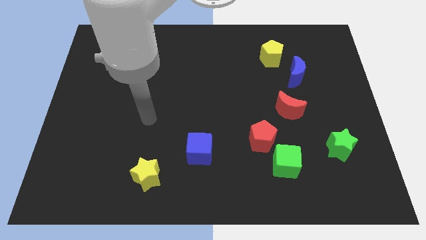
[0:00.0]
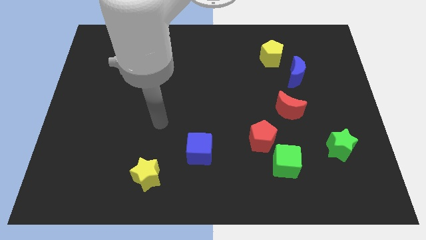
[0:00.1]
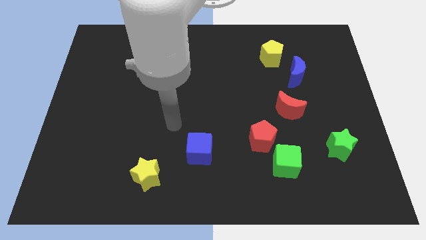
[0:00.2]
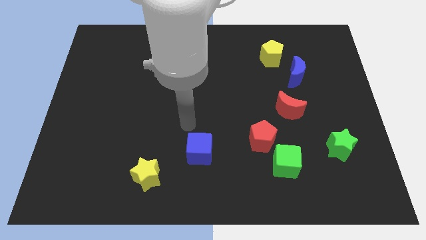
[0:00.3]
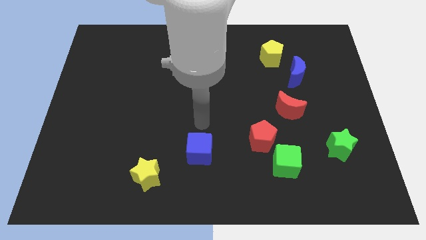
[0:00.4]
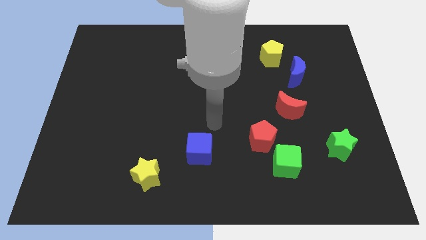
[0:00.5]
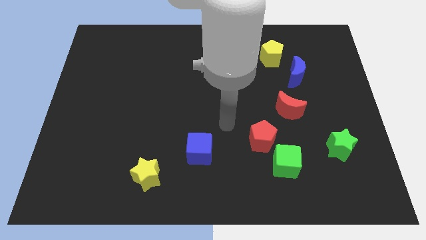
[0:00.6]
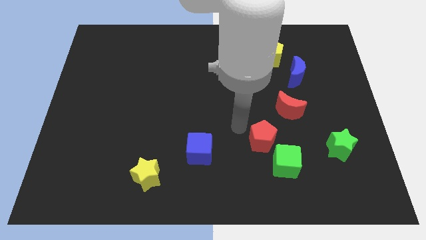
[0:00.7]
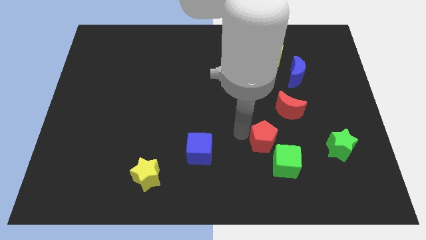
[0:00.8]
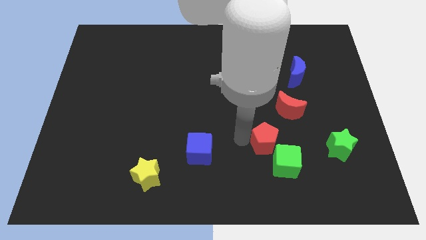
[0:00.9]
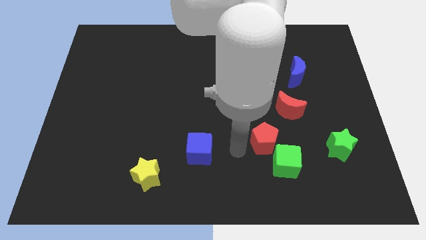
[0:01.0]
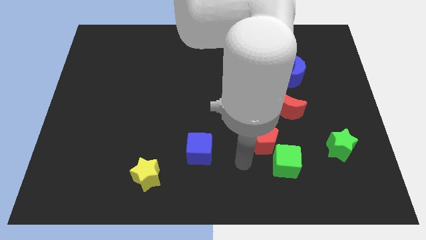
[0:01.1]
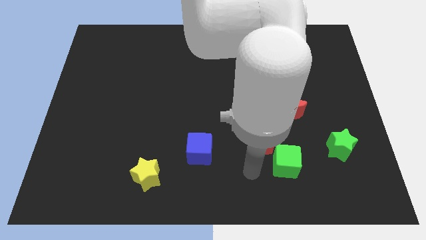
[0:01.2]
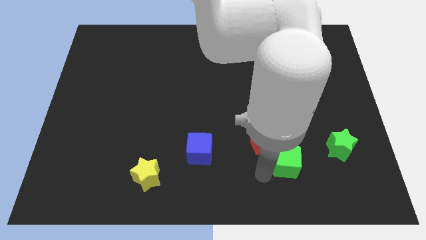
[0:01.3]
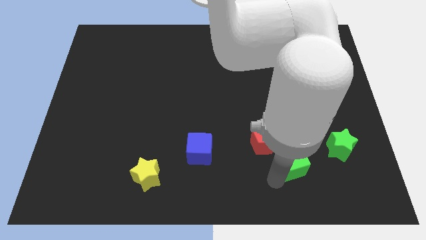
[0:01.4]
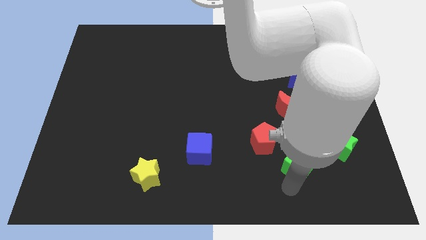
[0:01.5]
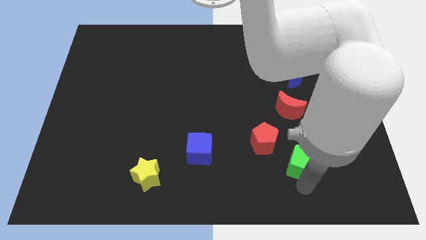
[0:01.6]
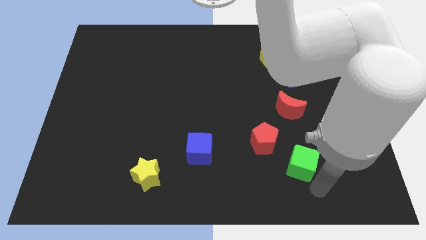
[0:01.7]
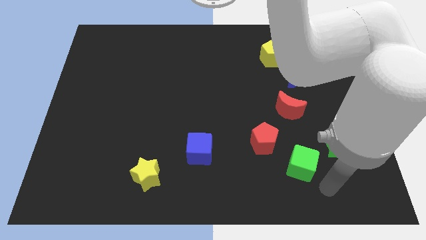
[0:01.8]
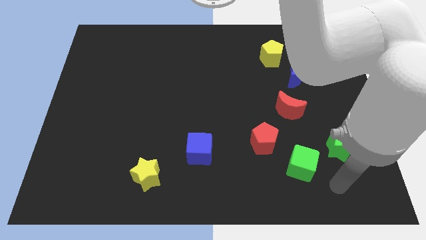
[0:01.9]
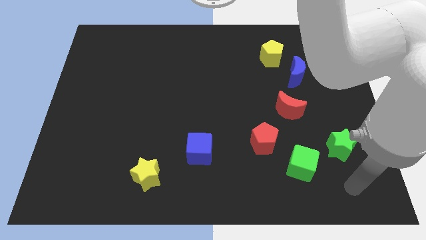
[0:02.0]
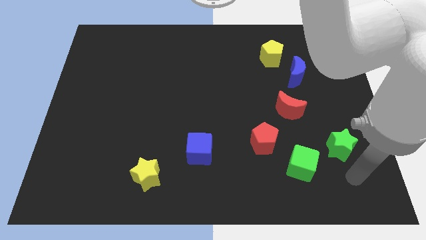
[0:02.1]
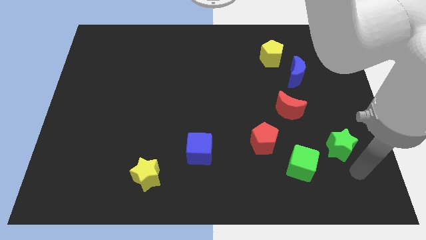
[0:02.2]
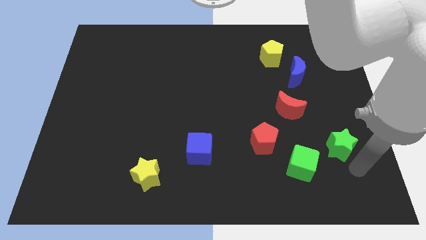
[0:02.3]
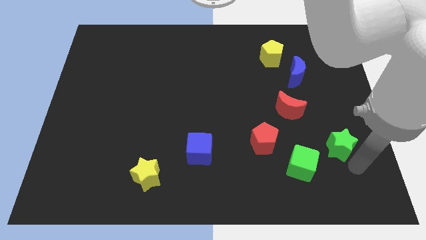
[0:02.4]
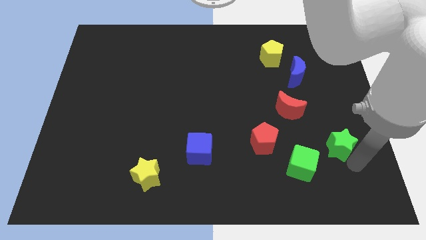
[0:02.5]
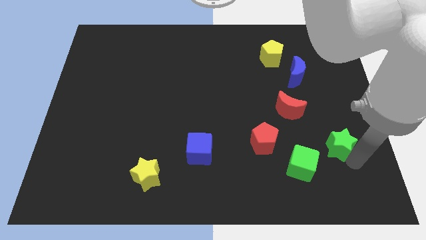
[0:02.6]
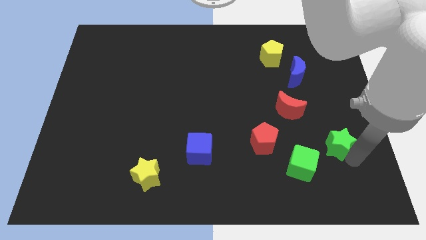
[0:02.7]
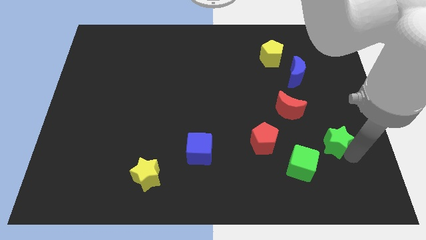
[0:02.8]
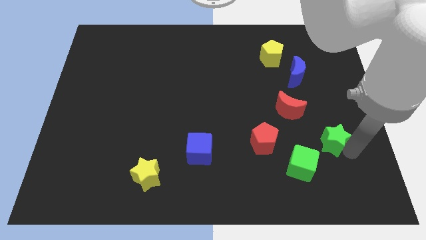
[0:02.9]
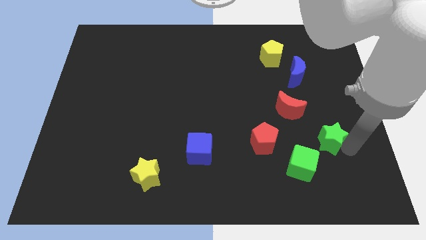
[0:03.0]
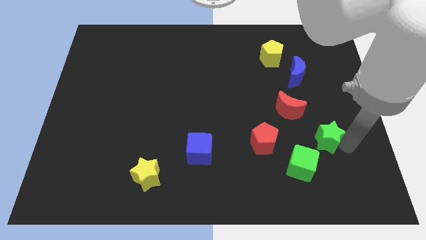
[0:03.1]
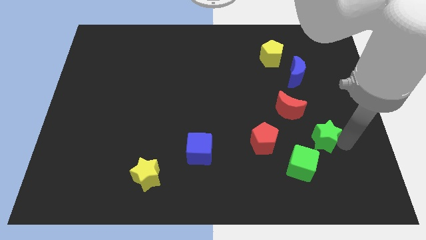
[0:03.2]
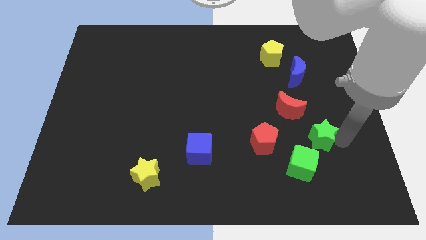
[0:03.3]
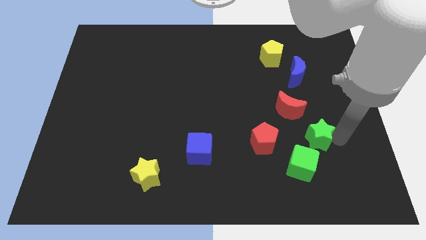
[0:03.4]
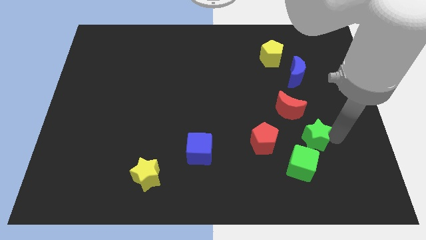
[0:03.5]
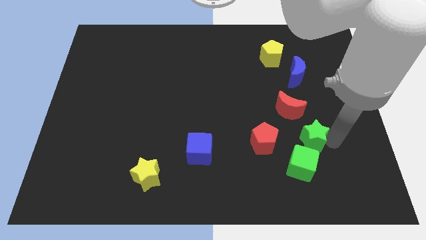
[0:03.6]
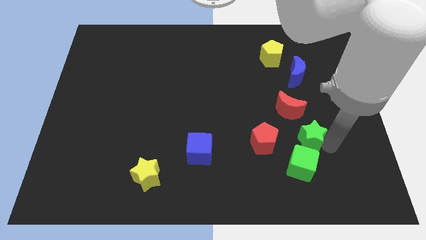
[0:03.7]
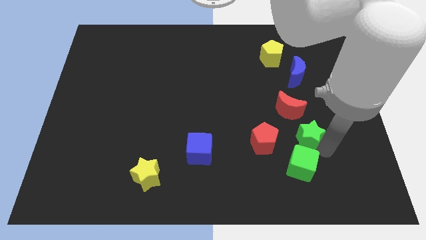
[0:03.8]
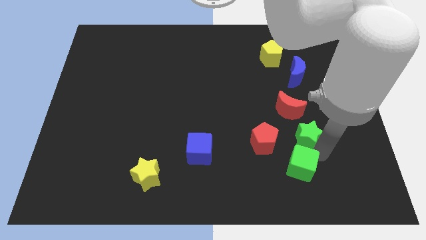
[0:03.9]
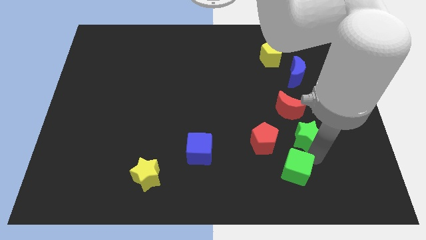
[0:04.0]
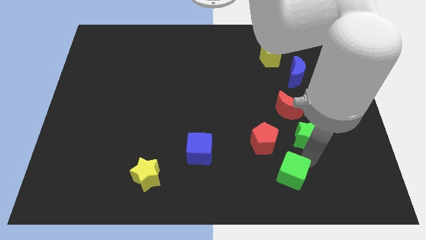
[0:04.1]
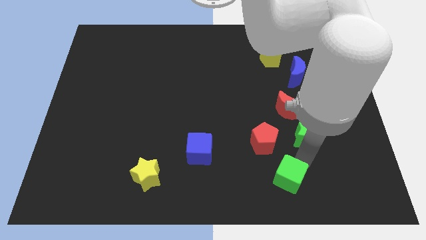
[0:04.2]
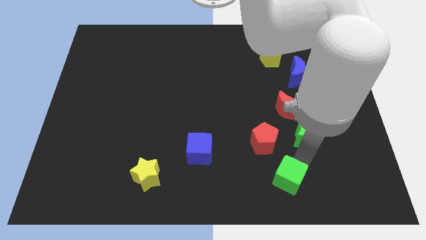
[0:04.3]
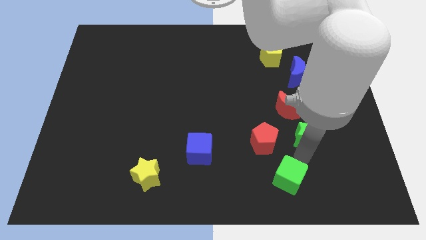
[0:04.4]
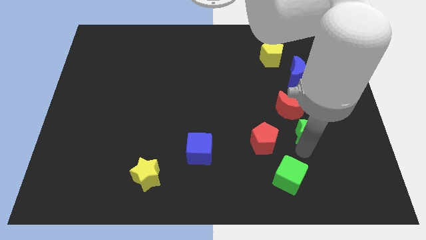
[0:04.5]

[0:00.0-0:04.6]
push the green star upwards and left diagonally a little bit

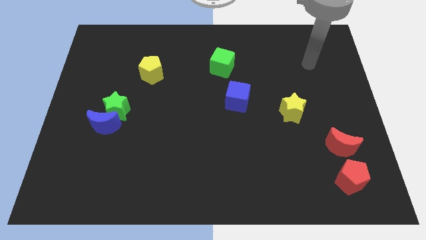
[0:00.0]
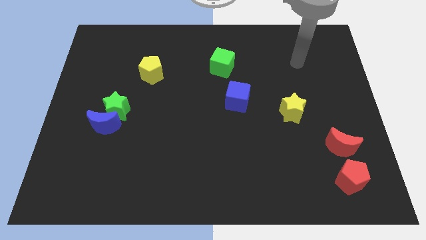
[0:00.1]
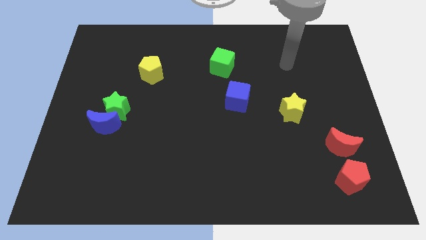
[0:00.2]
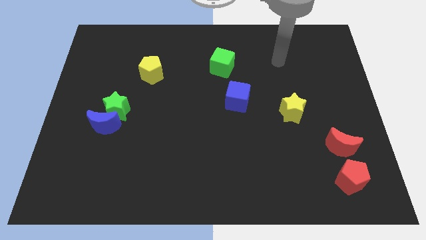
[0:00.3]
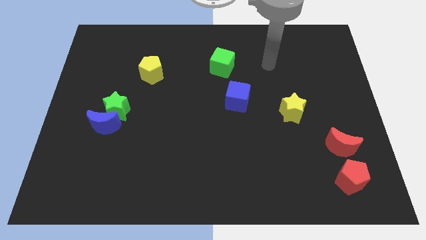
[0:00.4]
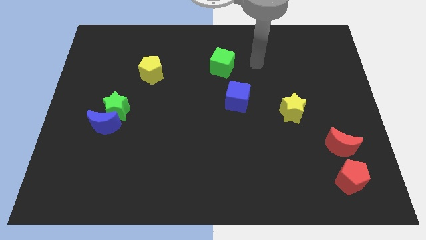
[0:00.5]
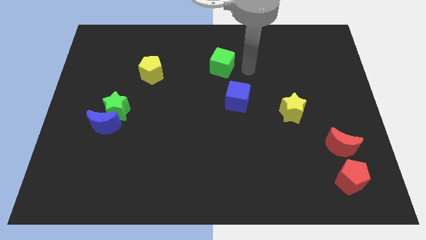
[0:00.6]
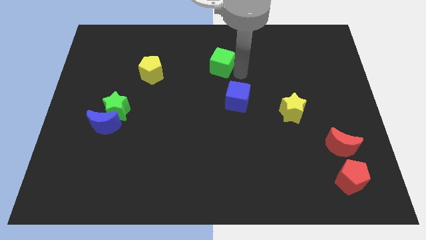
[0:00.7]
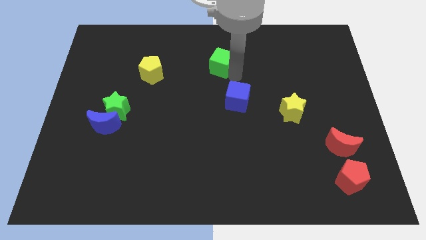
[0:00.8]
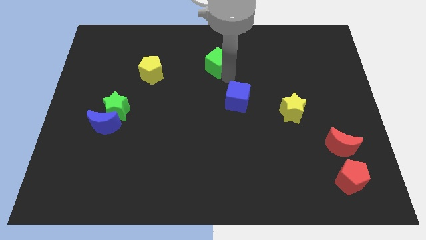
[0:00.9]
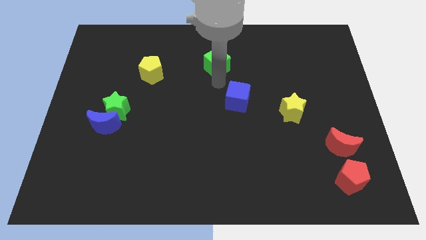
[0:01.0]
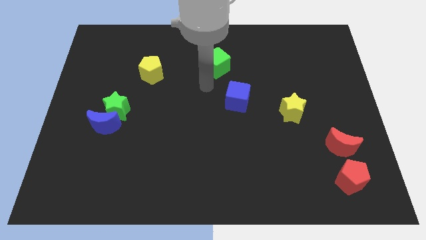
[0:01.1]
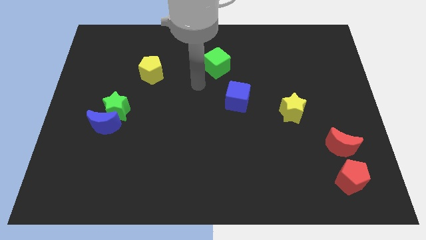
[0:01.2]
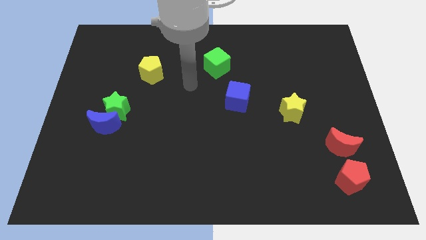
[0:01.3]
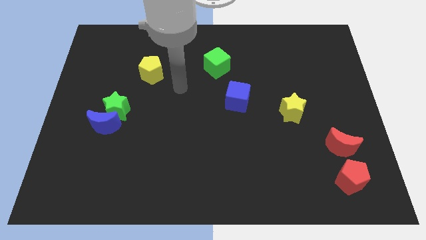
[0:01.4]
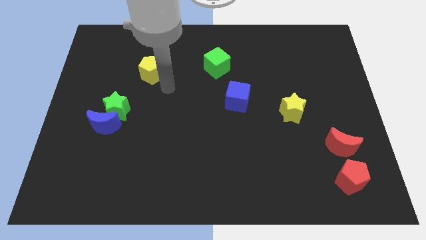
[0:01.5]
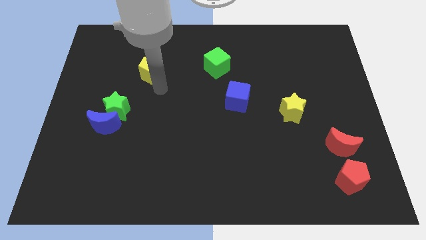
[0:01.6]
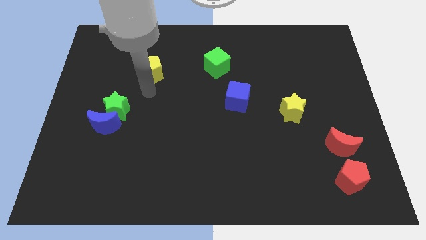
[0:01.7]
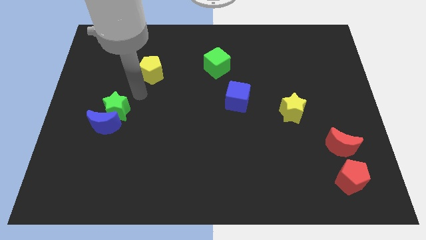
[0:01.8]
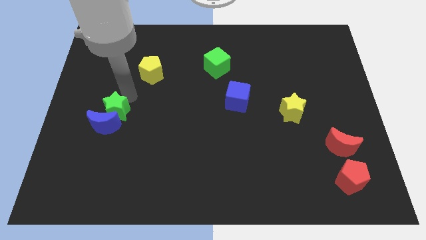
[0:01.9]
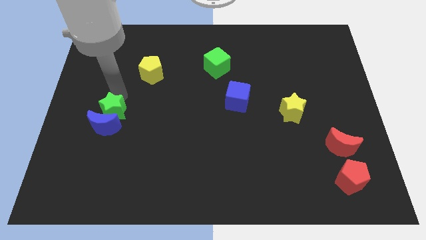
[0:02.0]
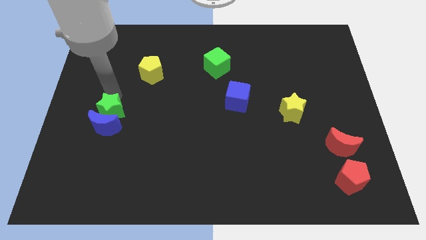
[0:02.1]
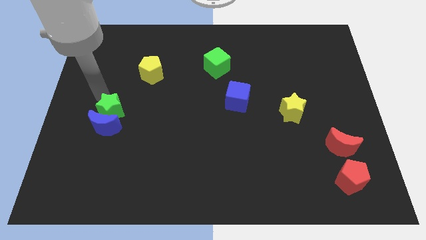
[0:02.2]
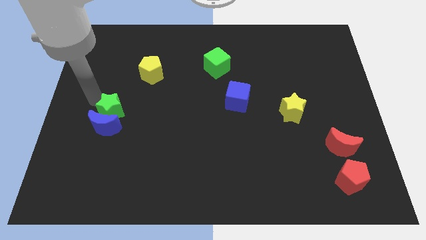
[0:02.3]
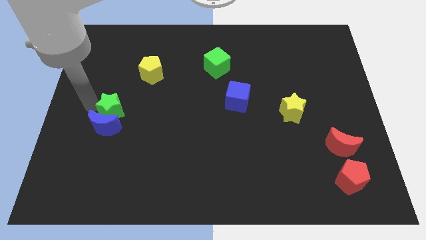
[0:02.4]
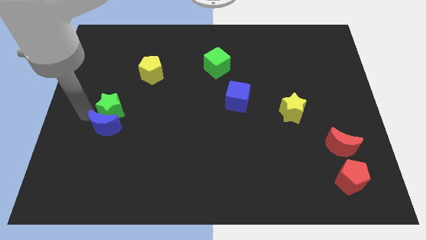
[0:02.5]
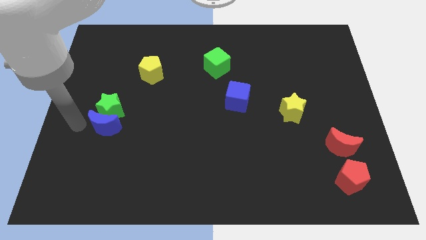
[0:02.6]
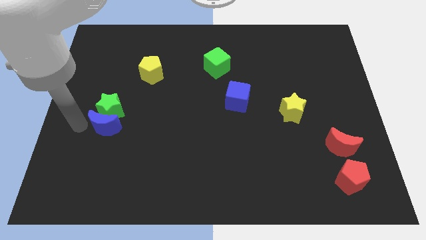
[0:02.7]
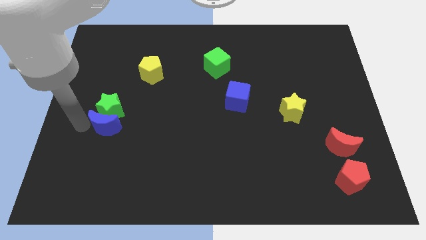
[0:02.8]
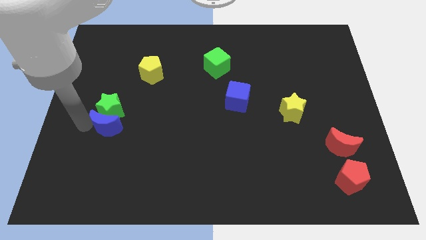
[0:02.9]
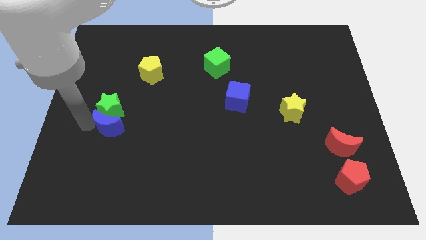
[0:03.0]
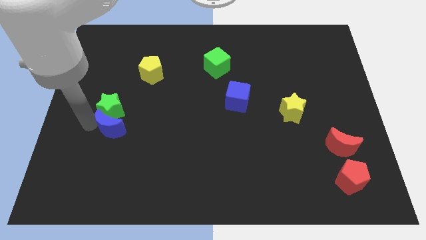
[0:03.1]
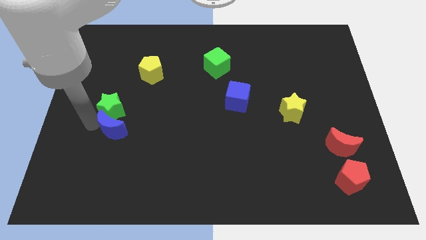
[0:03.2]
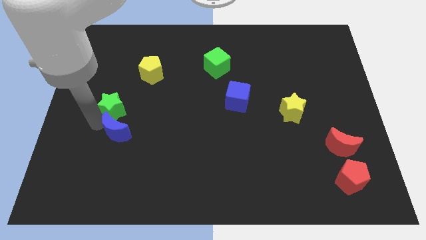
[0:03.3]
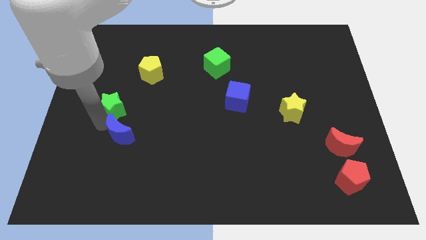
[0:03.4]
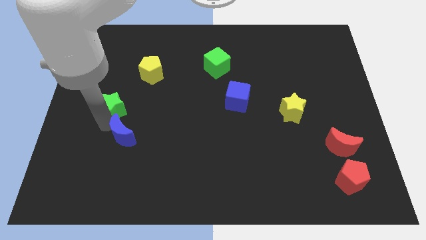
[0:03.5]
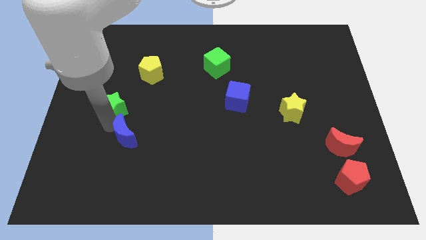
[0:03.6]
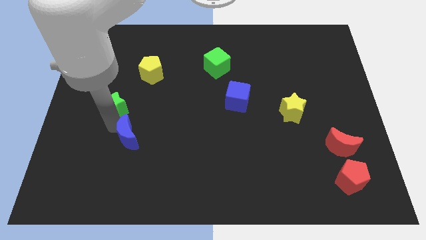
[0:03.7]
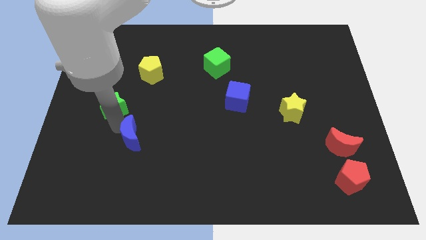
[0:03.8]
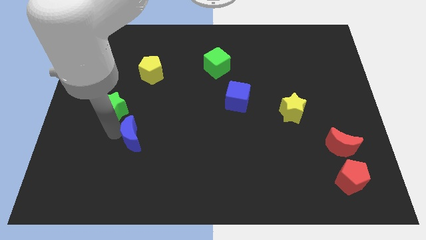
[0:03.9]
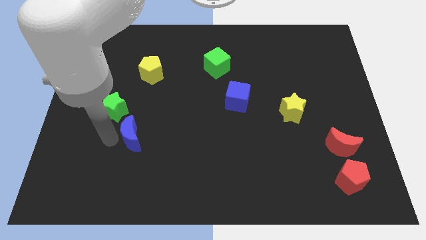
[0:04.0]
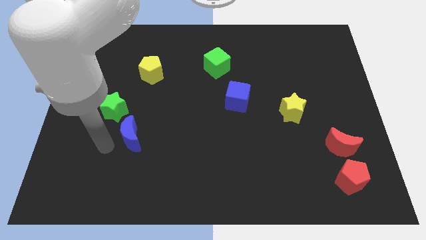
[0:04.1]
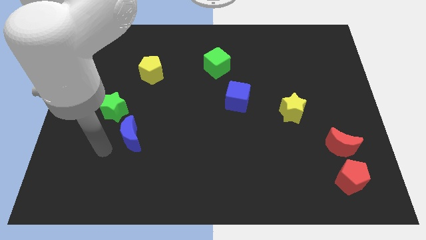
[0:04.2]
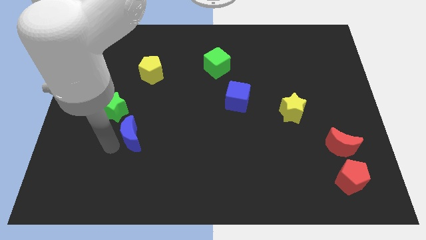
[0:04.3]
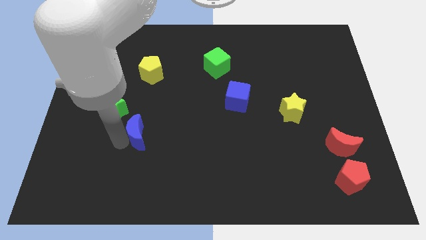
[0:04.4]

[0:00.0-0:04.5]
slightly push the blue moon right
